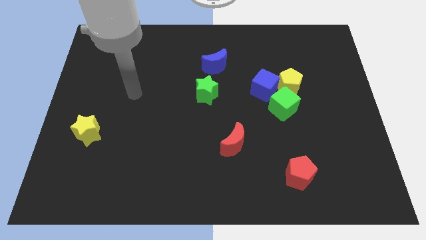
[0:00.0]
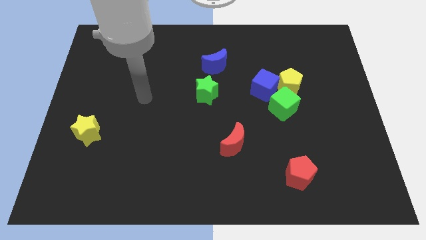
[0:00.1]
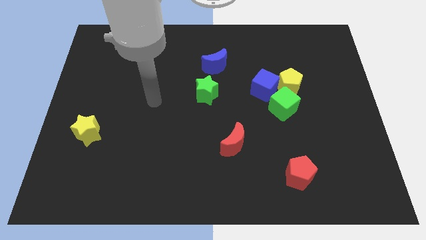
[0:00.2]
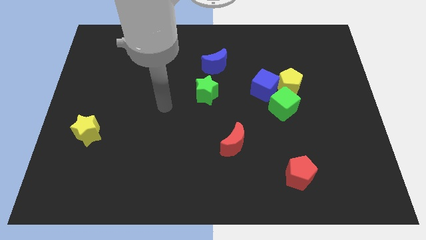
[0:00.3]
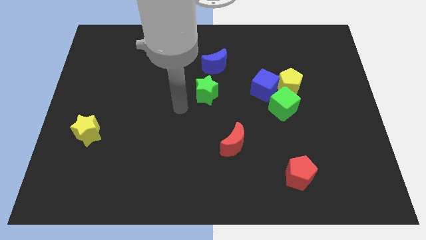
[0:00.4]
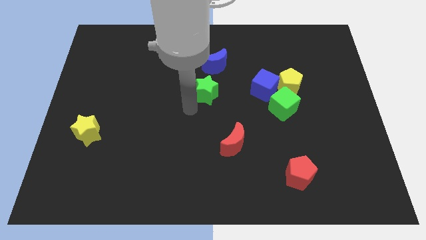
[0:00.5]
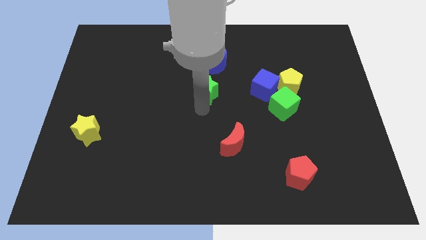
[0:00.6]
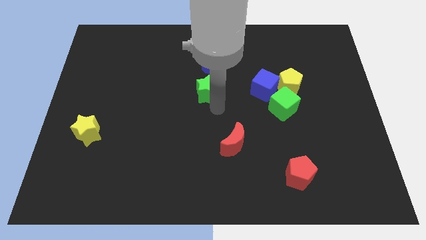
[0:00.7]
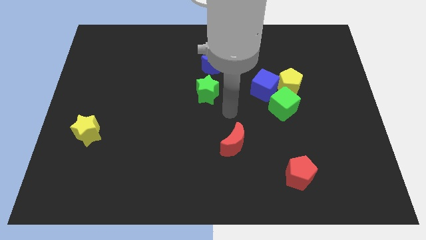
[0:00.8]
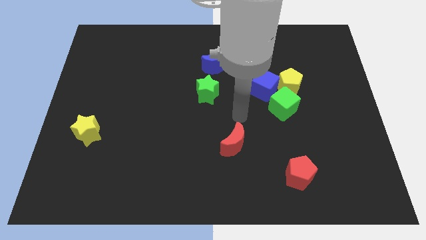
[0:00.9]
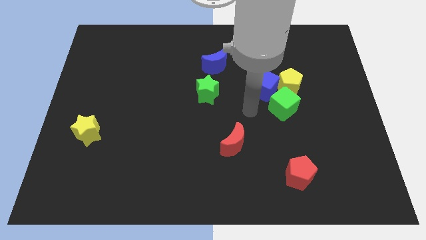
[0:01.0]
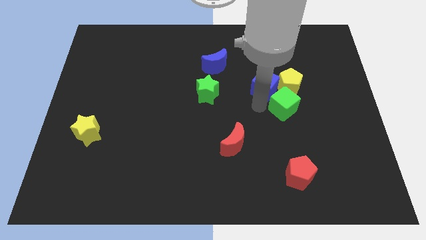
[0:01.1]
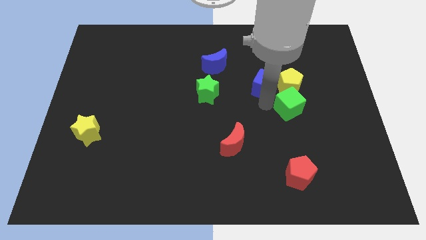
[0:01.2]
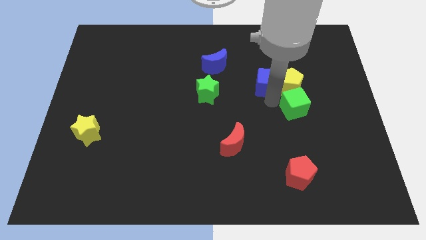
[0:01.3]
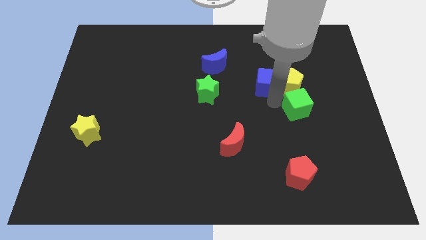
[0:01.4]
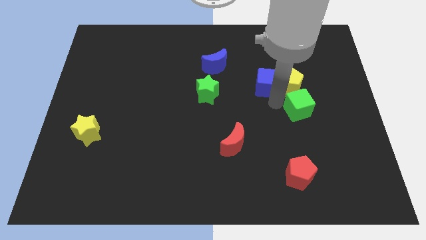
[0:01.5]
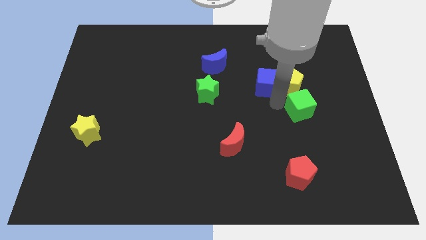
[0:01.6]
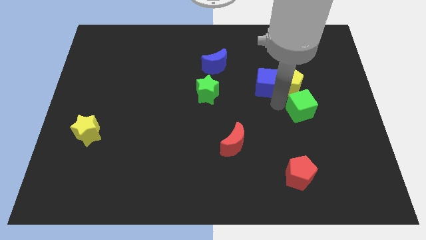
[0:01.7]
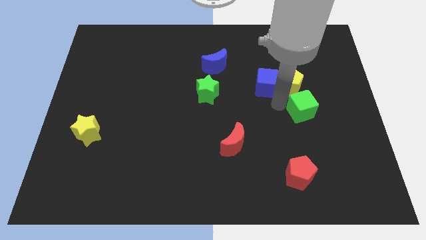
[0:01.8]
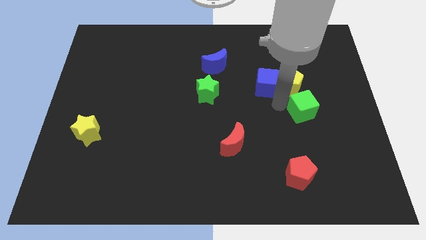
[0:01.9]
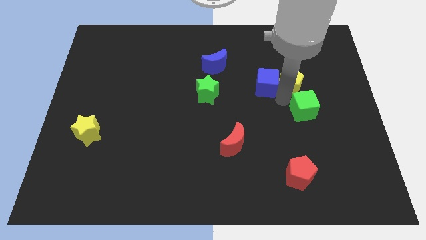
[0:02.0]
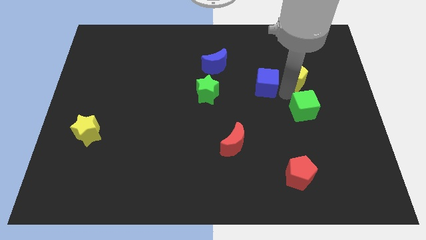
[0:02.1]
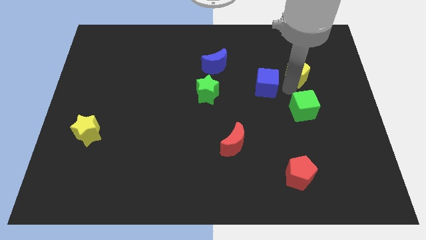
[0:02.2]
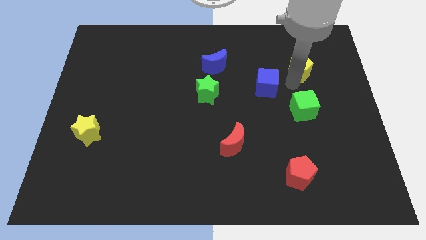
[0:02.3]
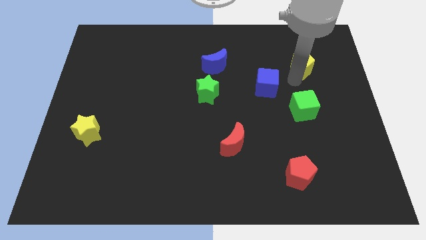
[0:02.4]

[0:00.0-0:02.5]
move the yellow pentagon away from the blue cube and green cube

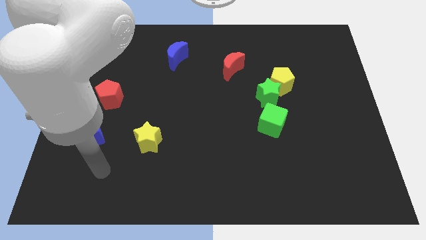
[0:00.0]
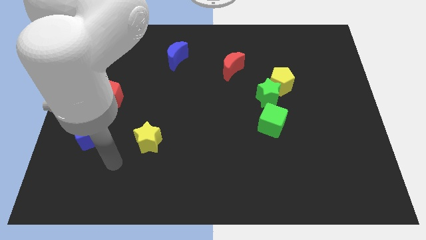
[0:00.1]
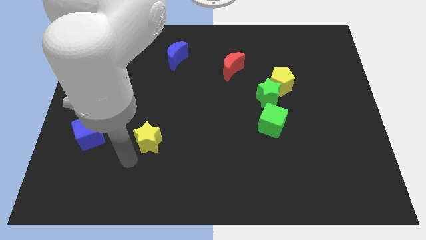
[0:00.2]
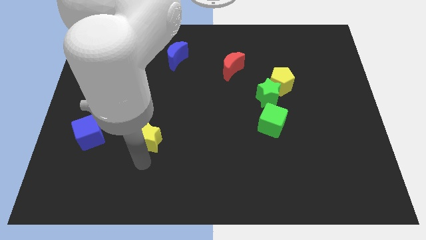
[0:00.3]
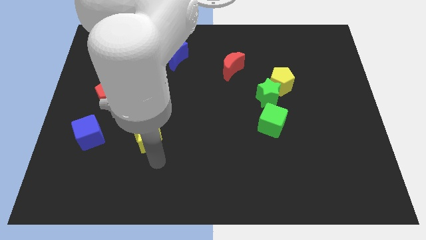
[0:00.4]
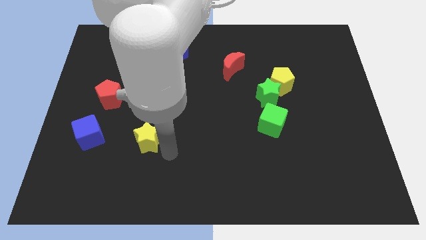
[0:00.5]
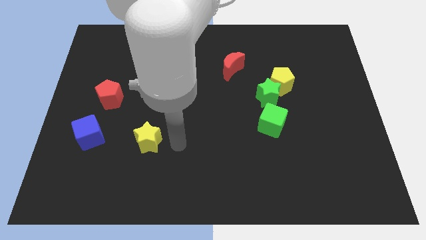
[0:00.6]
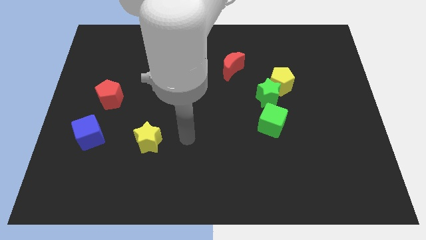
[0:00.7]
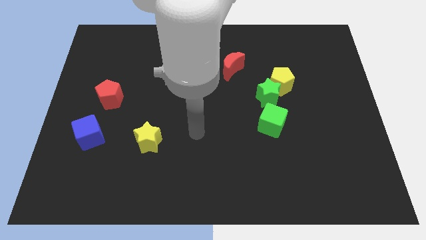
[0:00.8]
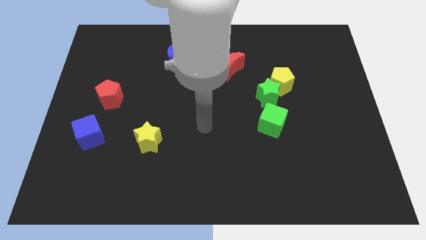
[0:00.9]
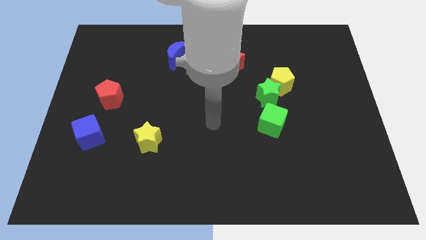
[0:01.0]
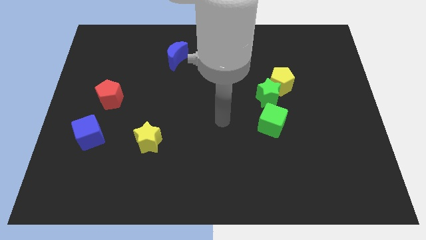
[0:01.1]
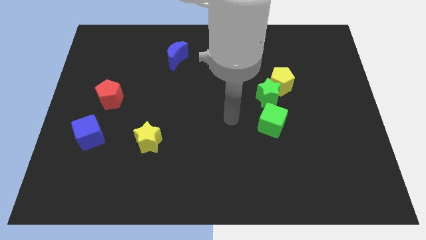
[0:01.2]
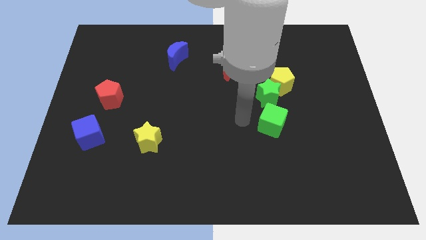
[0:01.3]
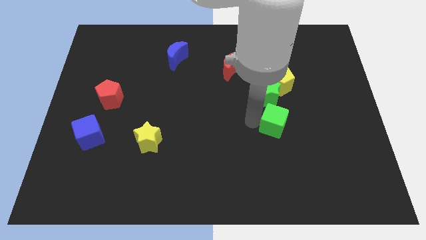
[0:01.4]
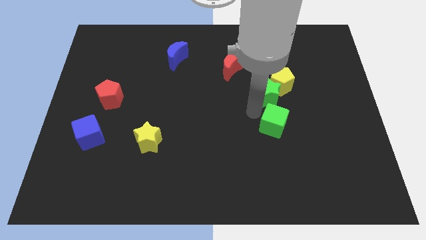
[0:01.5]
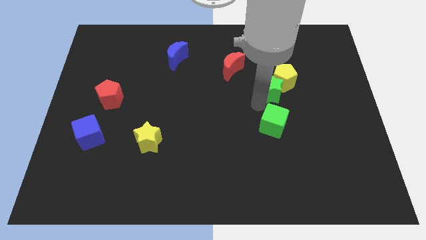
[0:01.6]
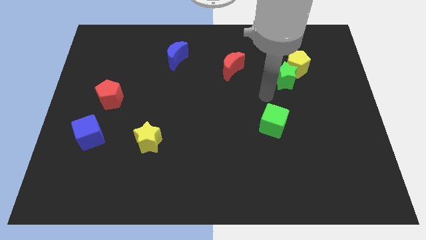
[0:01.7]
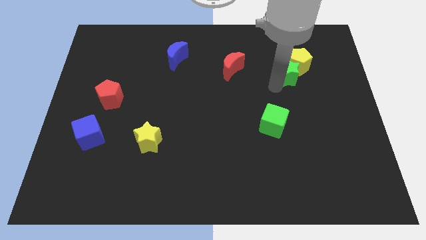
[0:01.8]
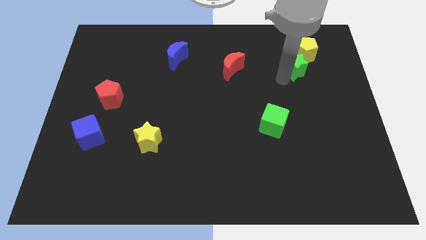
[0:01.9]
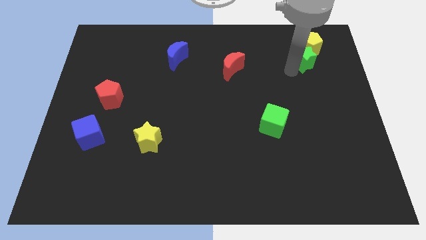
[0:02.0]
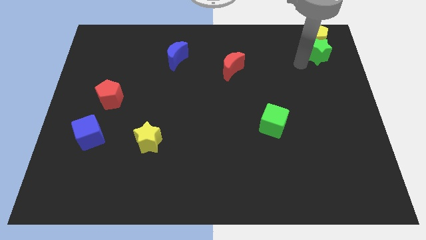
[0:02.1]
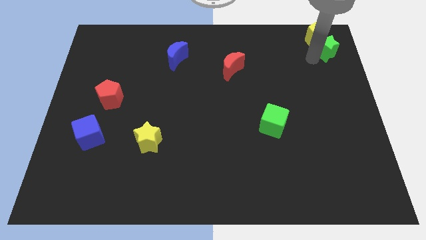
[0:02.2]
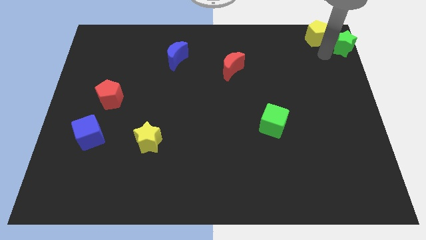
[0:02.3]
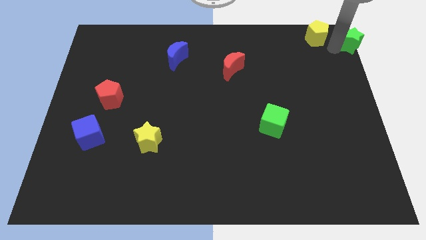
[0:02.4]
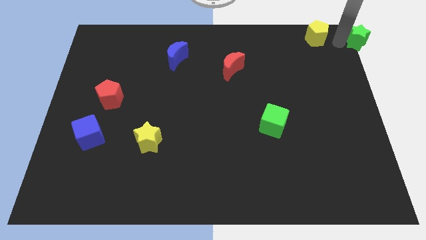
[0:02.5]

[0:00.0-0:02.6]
pull the yellow pentagon apart from the green star

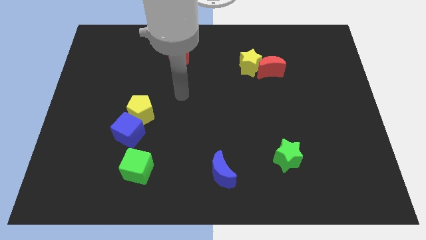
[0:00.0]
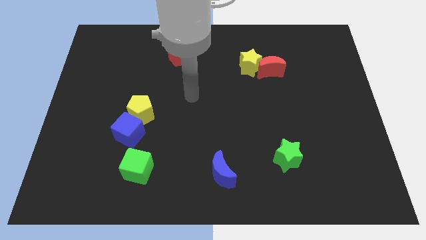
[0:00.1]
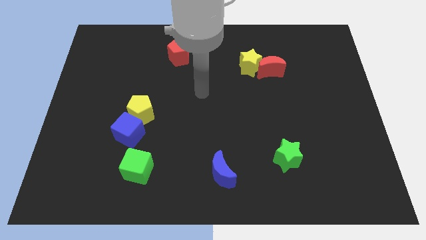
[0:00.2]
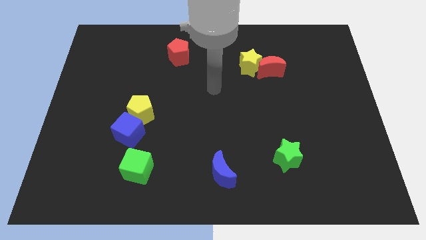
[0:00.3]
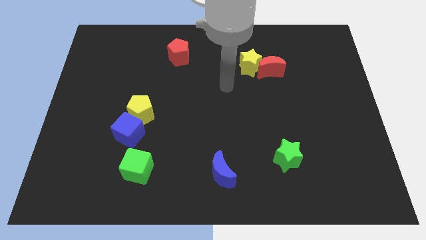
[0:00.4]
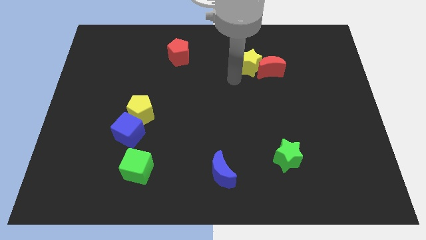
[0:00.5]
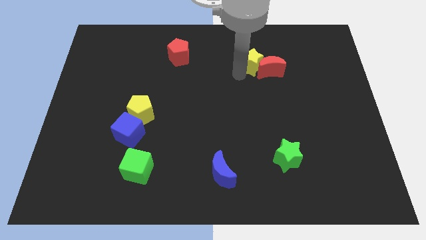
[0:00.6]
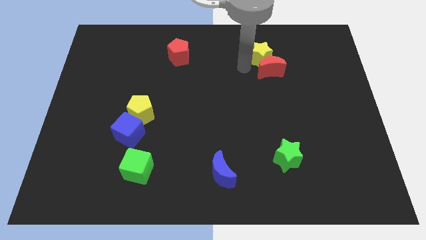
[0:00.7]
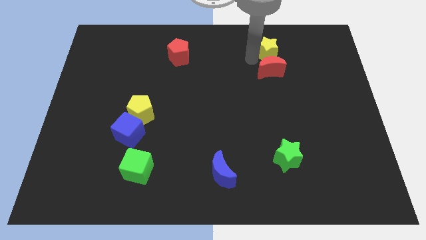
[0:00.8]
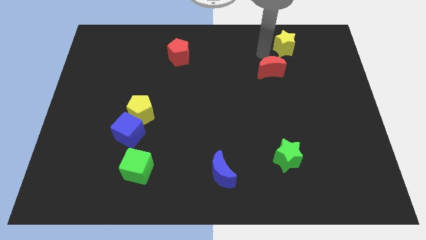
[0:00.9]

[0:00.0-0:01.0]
separate the red moon from the yellow star

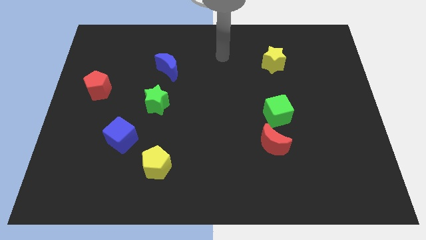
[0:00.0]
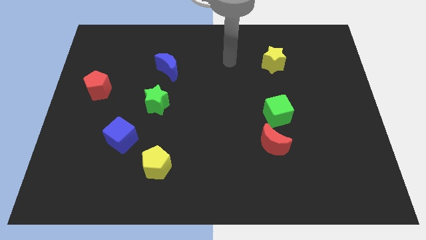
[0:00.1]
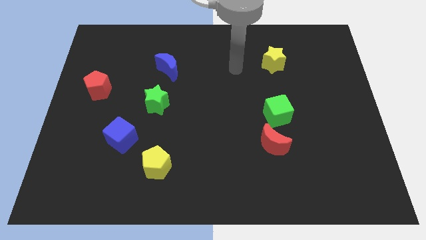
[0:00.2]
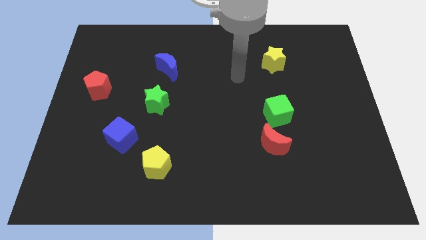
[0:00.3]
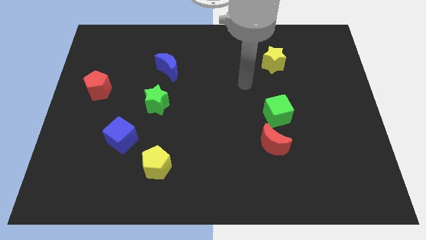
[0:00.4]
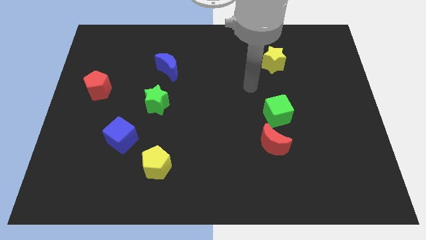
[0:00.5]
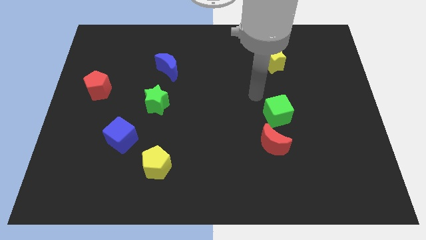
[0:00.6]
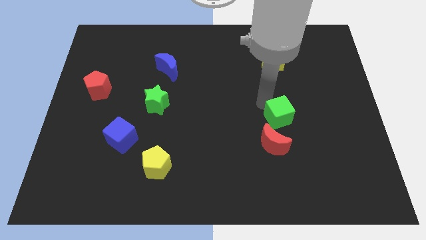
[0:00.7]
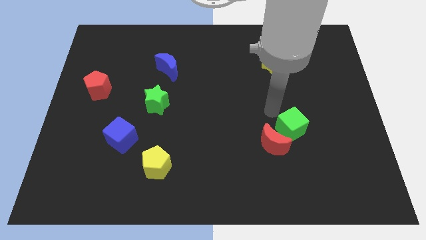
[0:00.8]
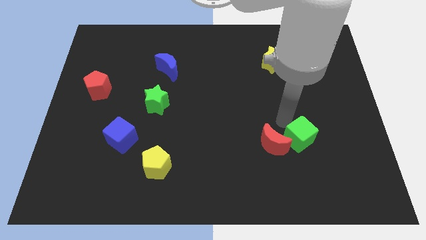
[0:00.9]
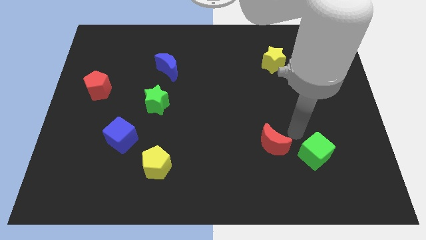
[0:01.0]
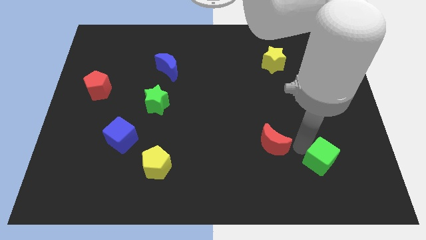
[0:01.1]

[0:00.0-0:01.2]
move the red moon away from the green cube

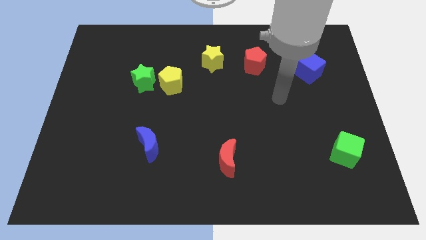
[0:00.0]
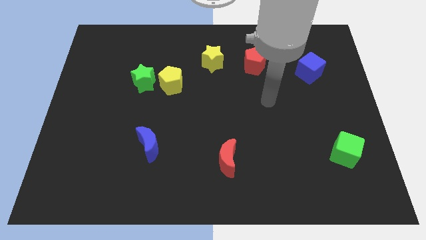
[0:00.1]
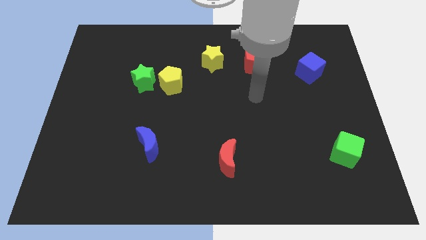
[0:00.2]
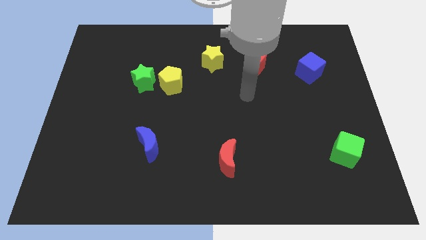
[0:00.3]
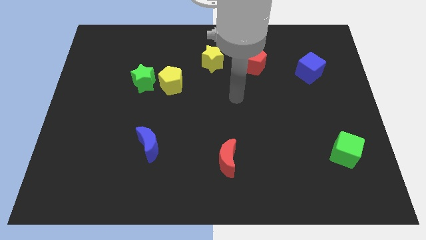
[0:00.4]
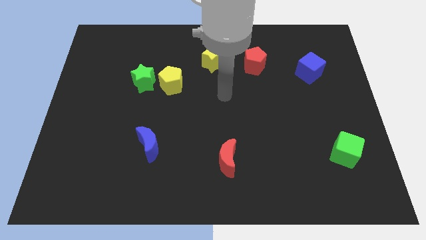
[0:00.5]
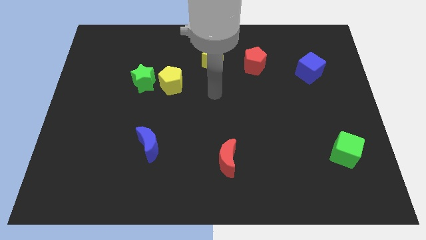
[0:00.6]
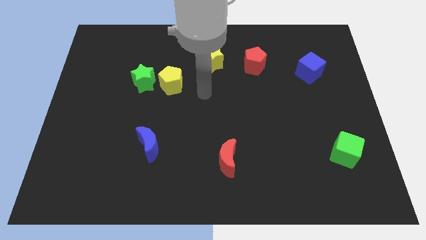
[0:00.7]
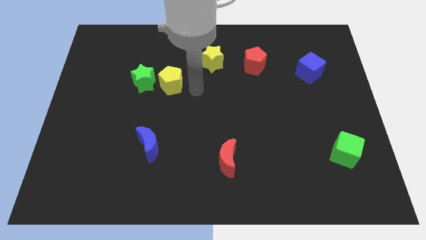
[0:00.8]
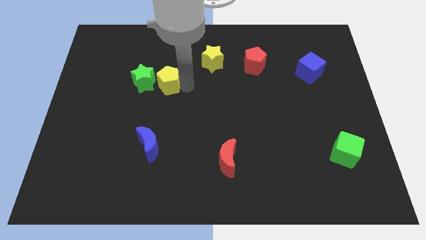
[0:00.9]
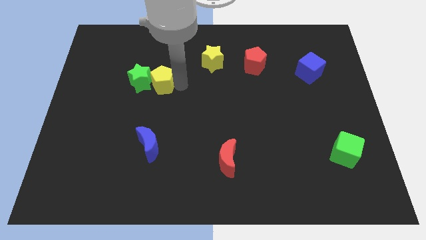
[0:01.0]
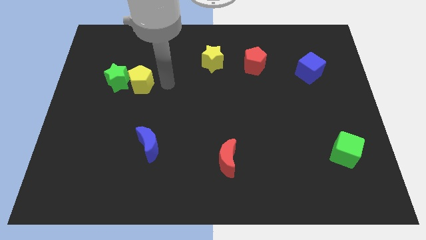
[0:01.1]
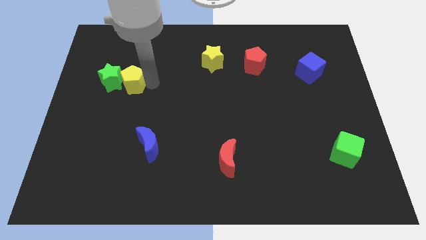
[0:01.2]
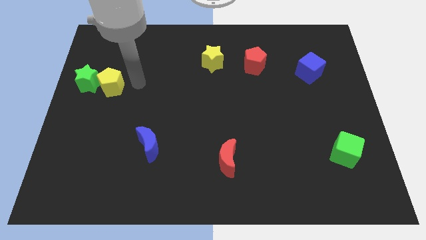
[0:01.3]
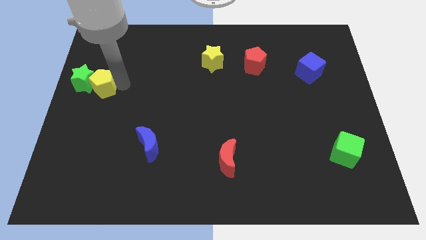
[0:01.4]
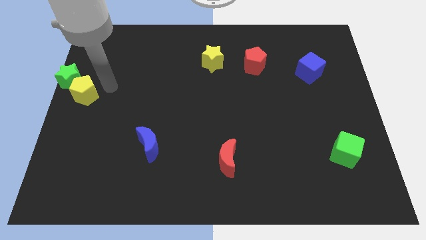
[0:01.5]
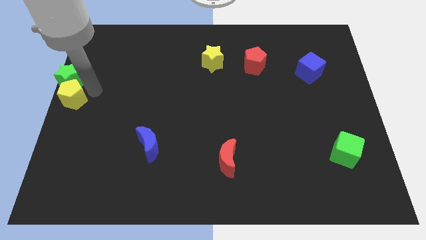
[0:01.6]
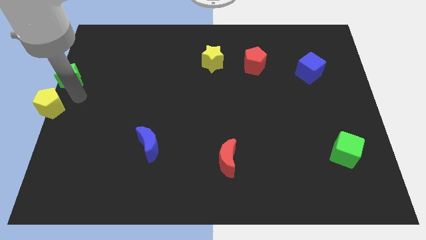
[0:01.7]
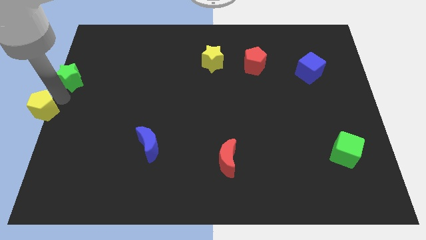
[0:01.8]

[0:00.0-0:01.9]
move the green star away from the yellow pentagon
